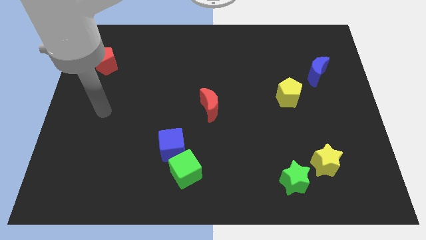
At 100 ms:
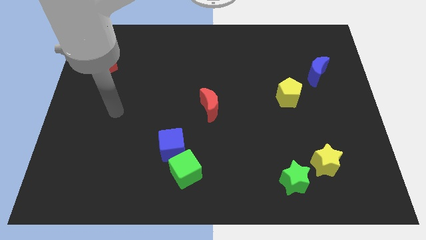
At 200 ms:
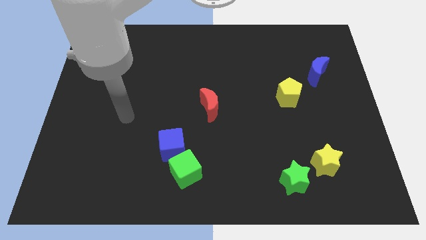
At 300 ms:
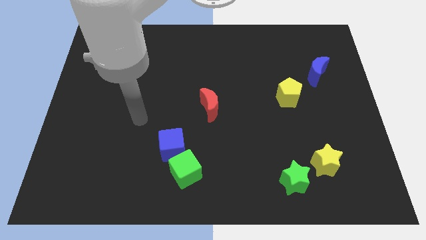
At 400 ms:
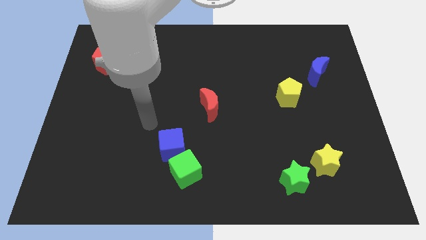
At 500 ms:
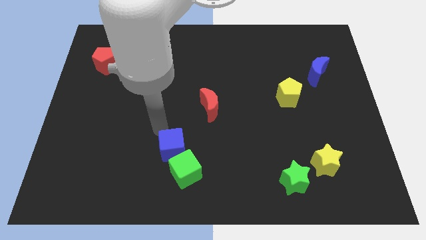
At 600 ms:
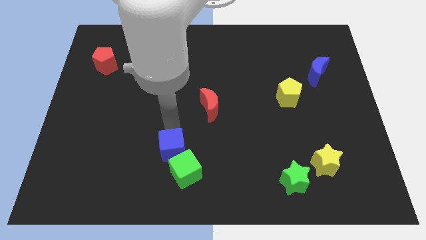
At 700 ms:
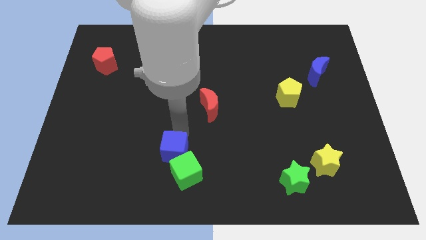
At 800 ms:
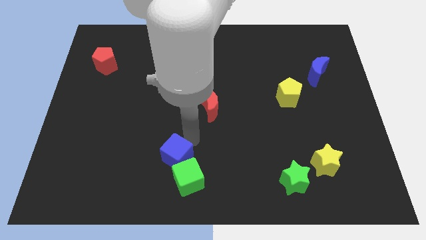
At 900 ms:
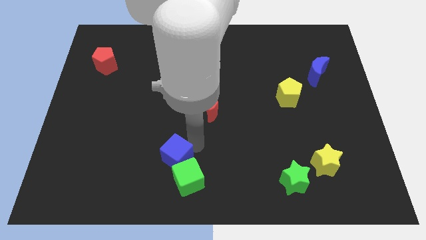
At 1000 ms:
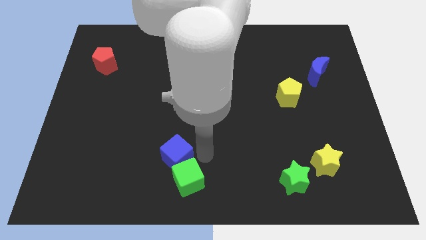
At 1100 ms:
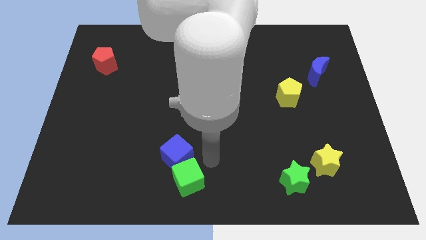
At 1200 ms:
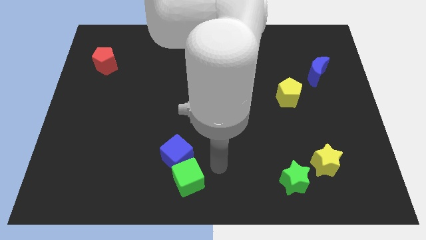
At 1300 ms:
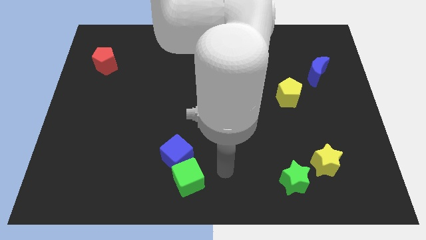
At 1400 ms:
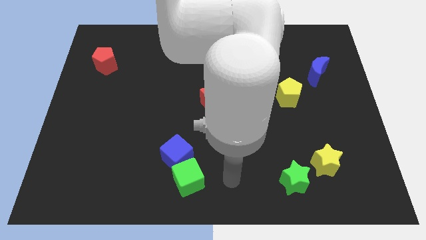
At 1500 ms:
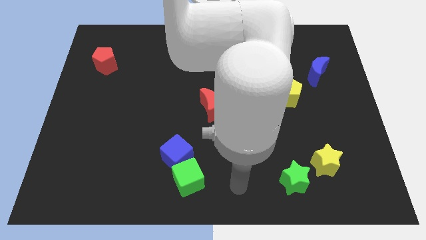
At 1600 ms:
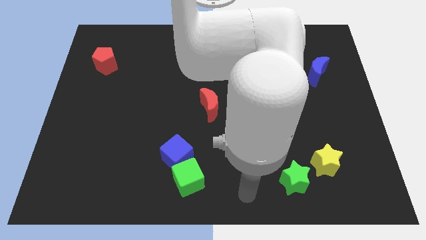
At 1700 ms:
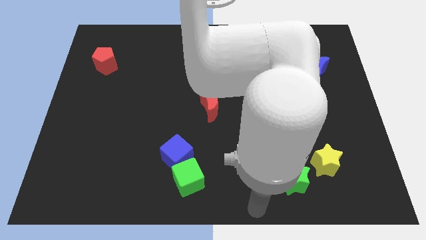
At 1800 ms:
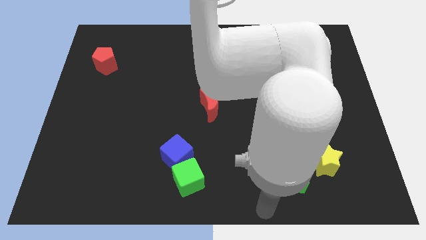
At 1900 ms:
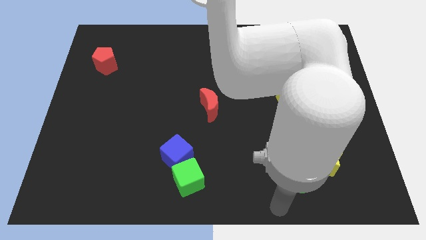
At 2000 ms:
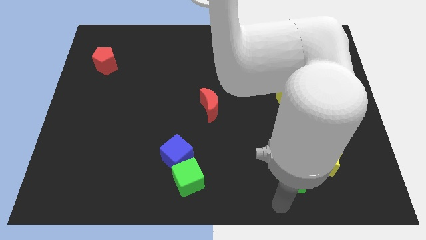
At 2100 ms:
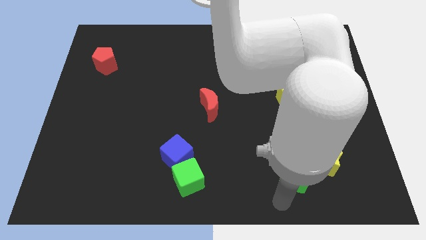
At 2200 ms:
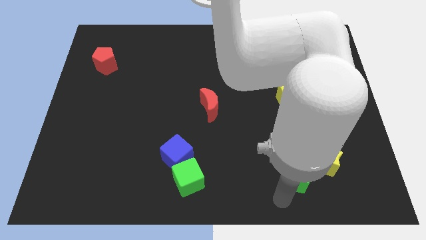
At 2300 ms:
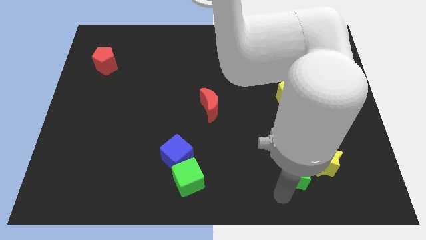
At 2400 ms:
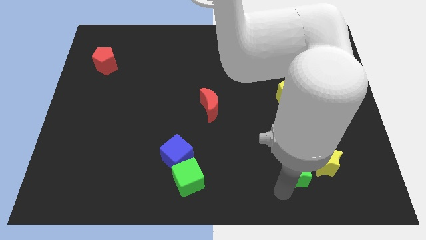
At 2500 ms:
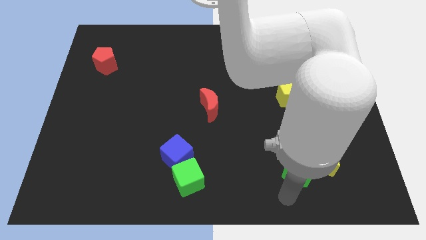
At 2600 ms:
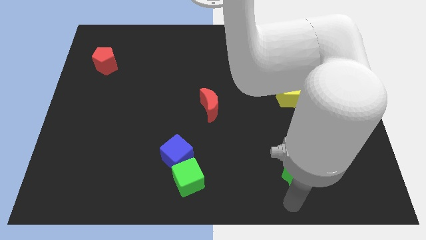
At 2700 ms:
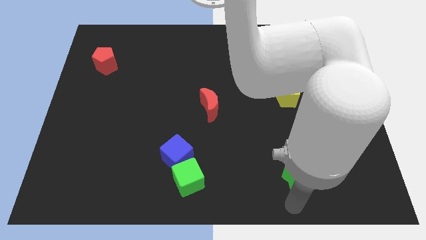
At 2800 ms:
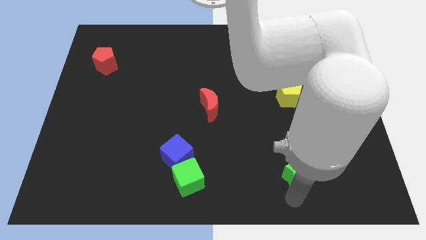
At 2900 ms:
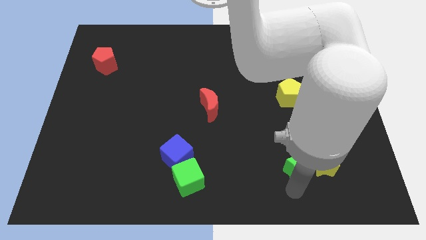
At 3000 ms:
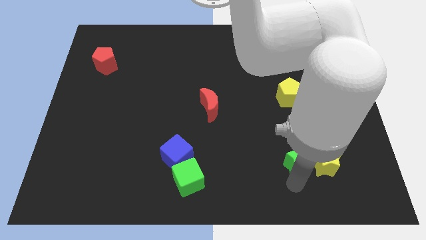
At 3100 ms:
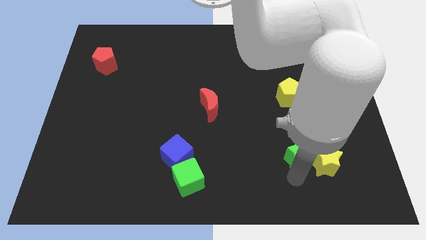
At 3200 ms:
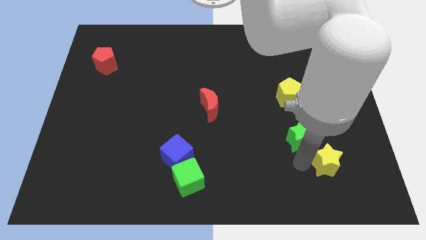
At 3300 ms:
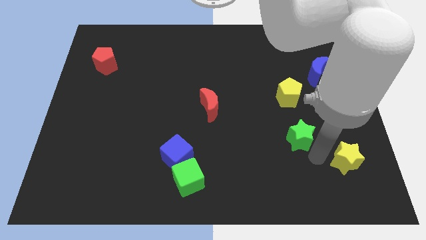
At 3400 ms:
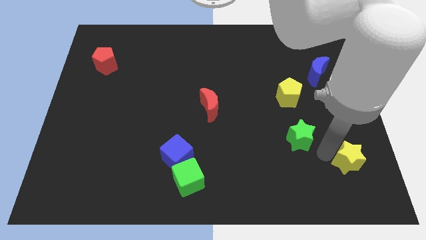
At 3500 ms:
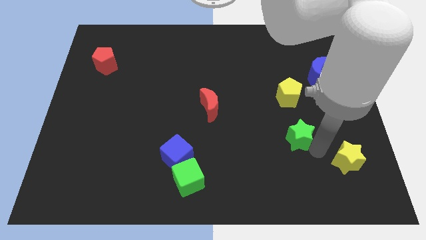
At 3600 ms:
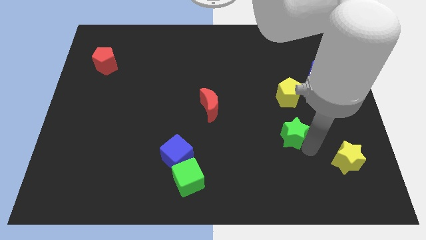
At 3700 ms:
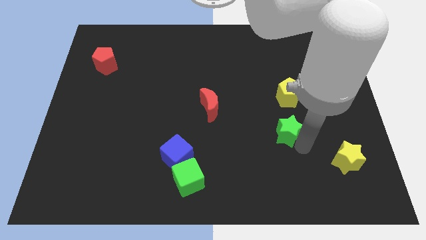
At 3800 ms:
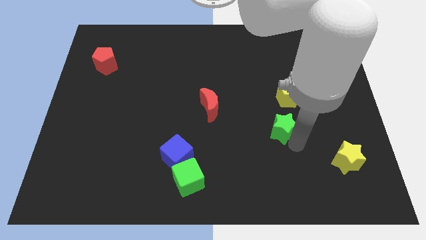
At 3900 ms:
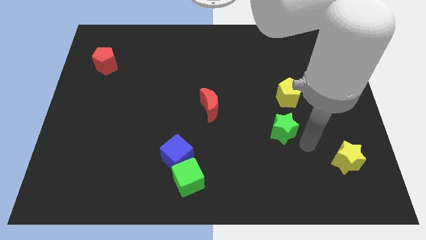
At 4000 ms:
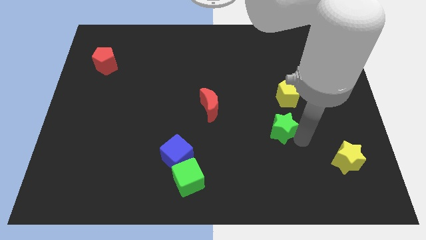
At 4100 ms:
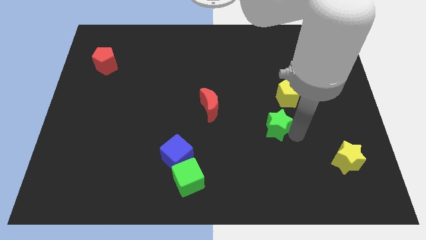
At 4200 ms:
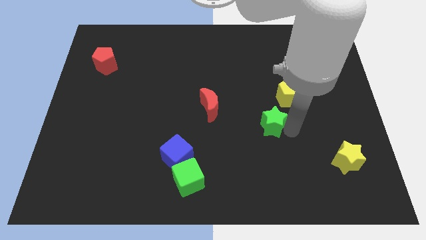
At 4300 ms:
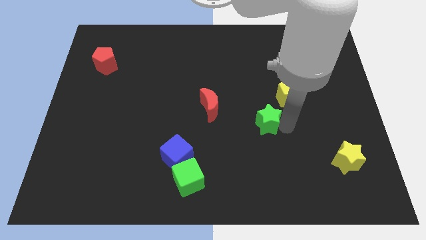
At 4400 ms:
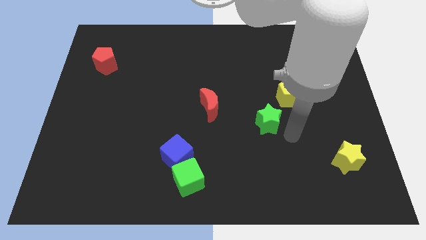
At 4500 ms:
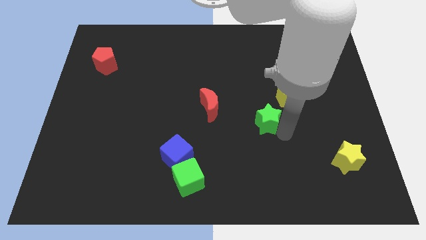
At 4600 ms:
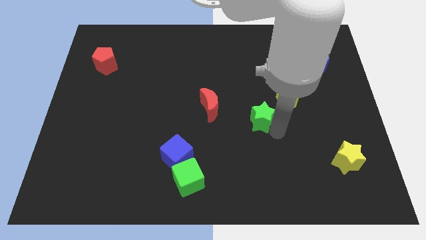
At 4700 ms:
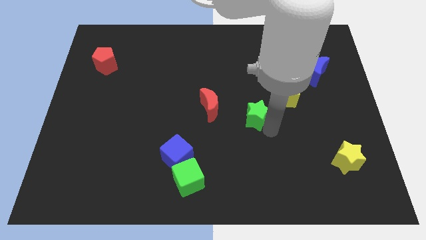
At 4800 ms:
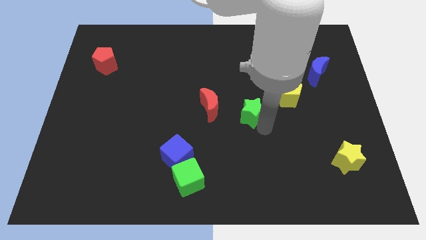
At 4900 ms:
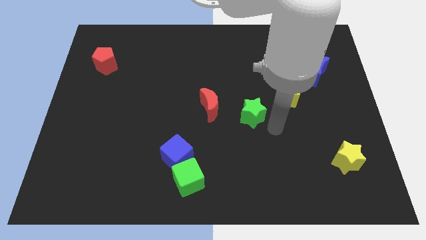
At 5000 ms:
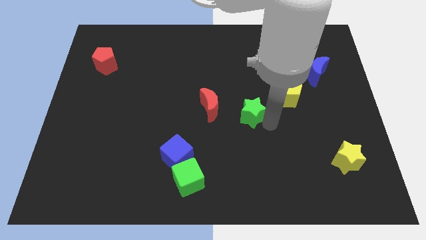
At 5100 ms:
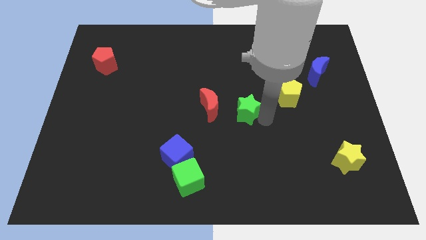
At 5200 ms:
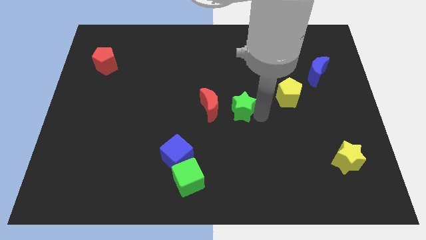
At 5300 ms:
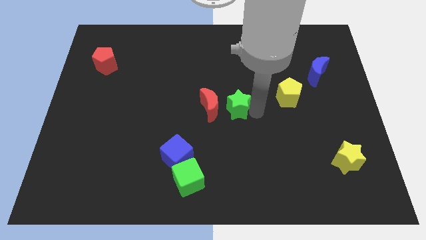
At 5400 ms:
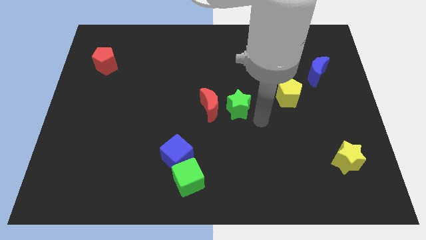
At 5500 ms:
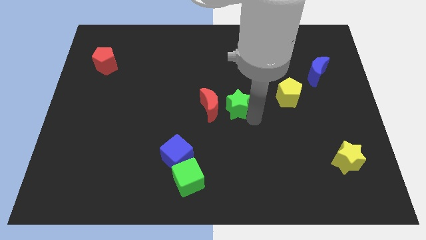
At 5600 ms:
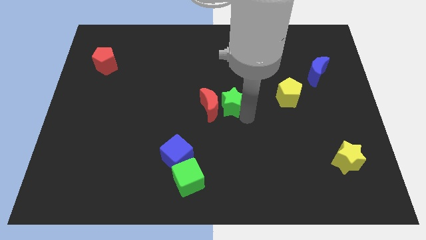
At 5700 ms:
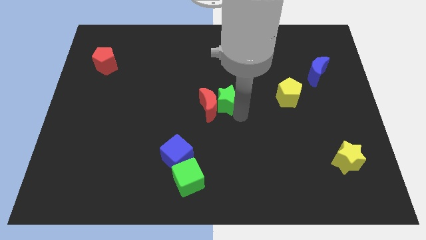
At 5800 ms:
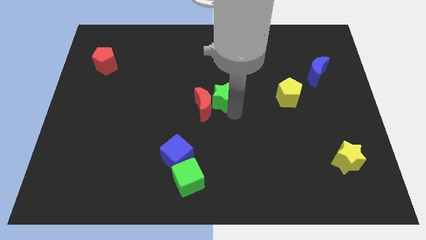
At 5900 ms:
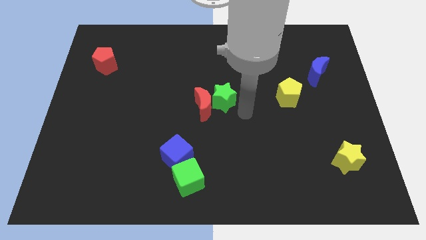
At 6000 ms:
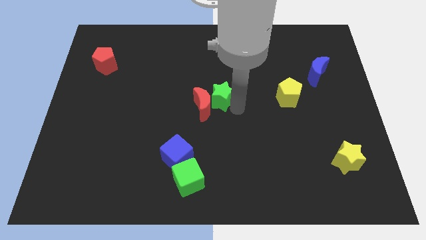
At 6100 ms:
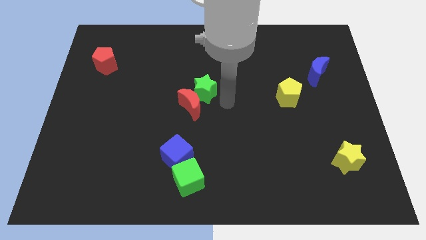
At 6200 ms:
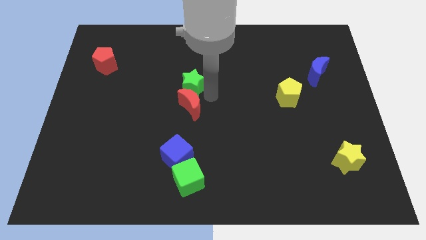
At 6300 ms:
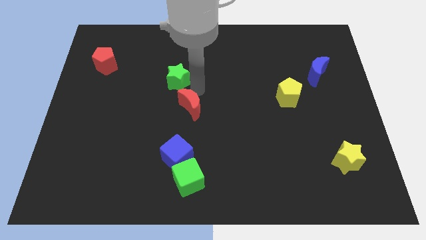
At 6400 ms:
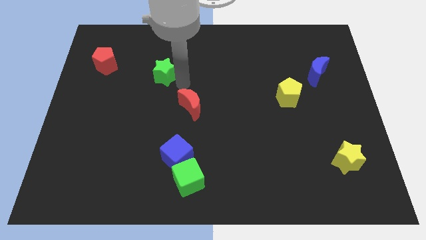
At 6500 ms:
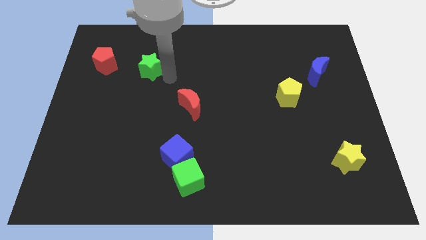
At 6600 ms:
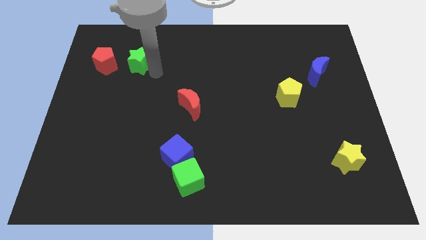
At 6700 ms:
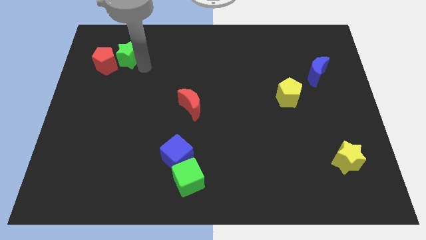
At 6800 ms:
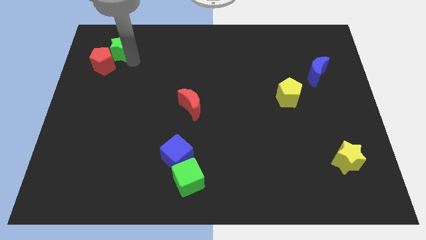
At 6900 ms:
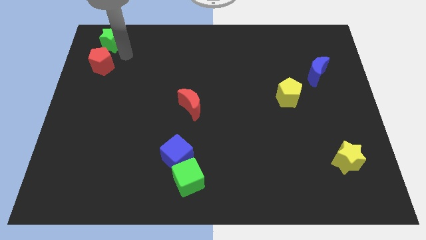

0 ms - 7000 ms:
move the green star to the top left
